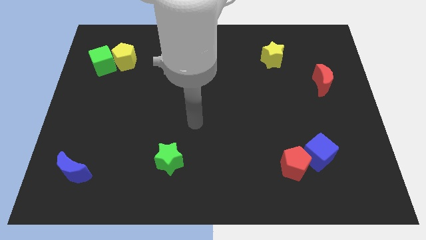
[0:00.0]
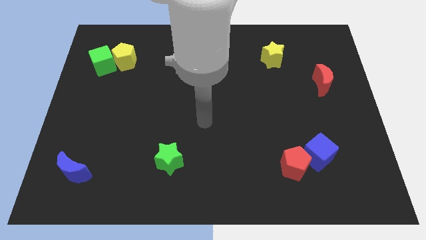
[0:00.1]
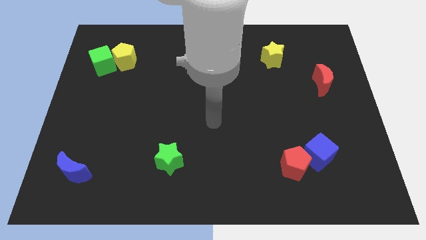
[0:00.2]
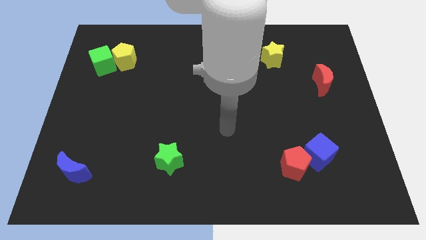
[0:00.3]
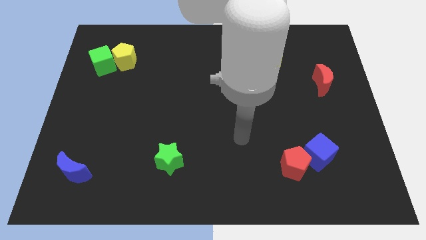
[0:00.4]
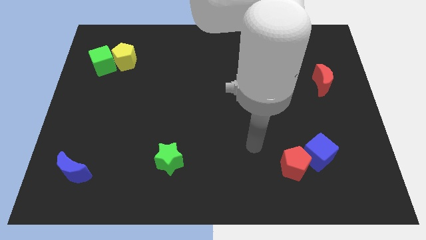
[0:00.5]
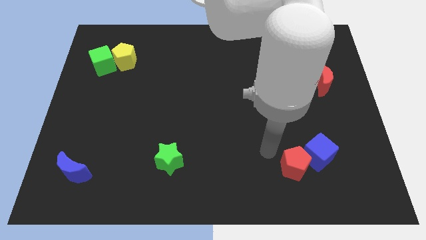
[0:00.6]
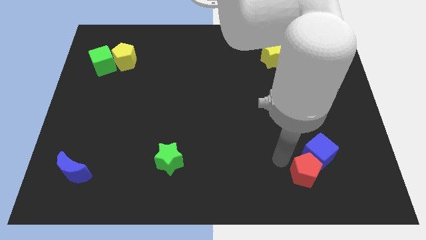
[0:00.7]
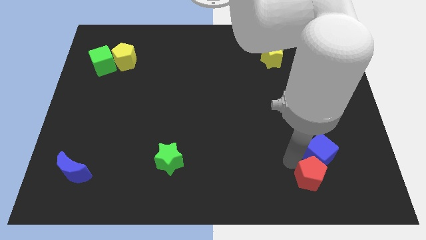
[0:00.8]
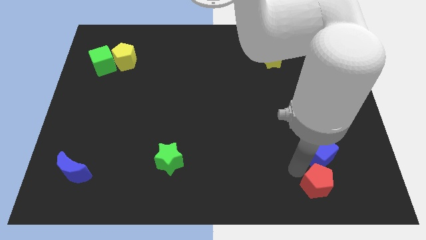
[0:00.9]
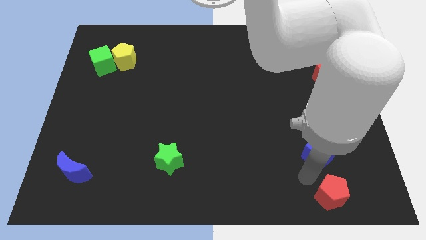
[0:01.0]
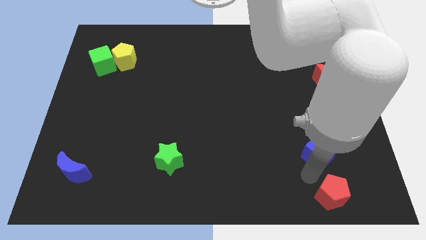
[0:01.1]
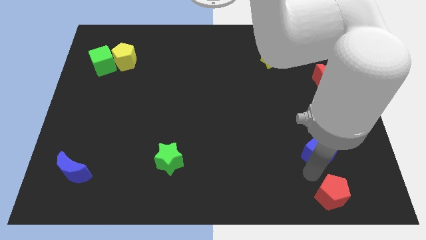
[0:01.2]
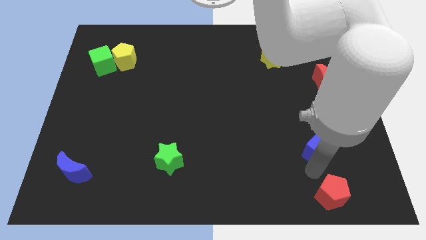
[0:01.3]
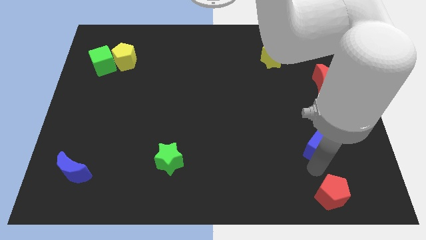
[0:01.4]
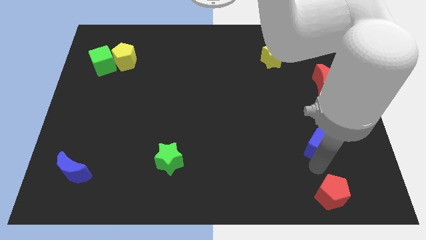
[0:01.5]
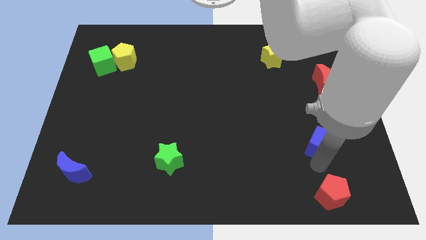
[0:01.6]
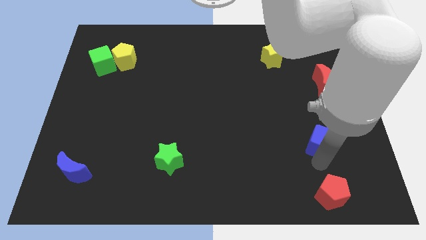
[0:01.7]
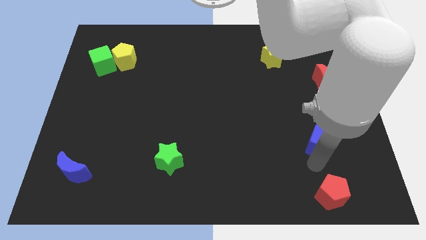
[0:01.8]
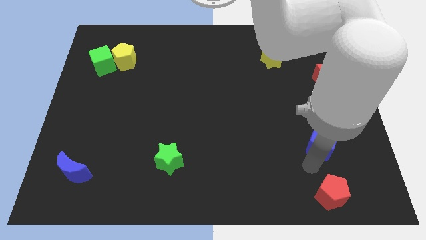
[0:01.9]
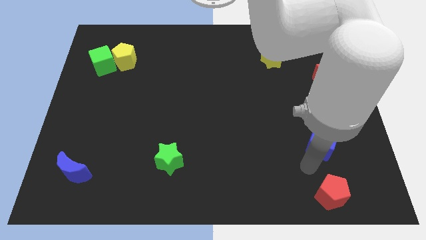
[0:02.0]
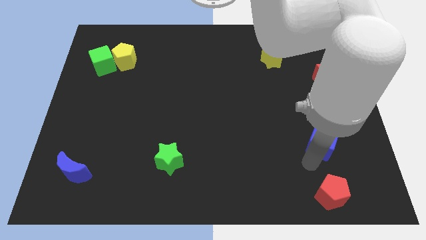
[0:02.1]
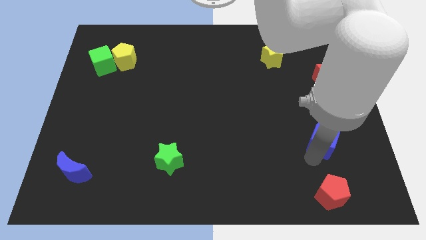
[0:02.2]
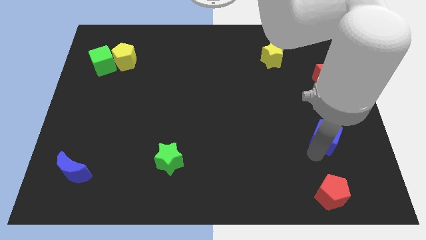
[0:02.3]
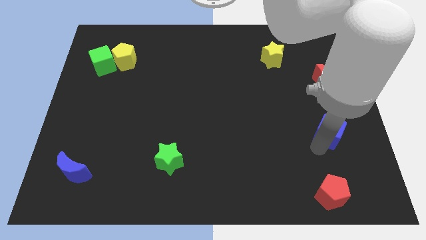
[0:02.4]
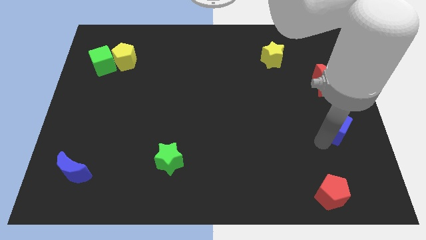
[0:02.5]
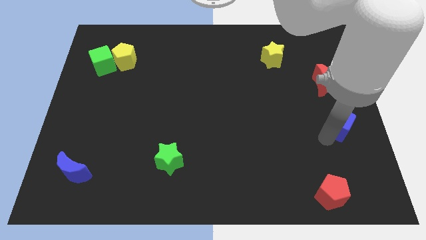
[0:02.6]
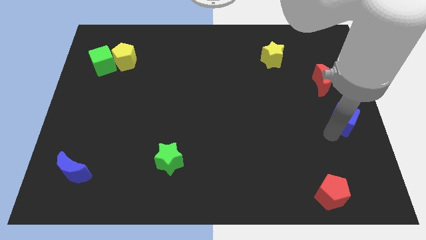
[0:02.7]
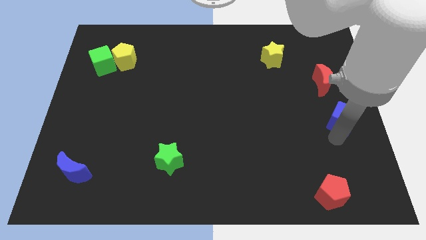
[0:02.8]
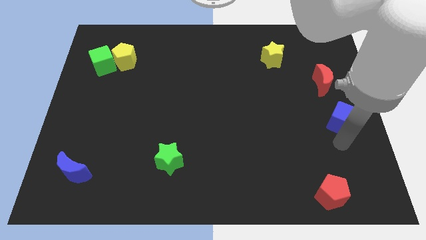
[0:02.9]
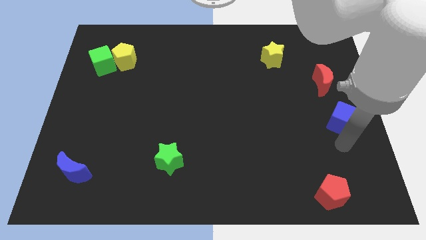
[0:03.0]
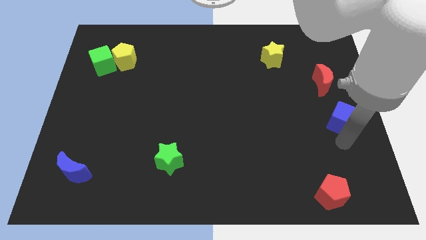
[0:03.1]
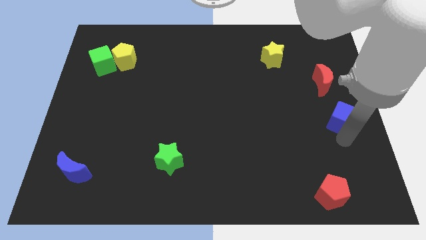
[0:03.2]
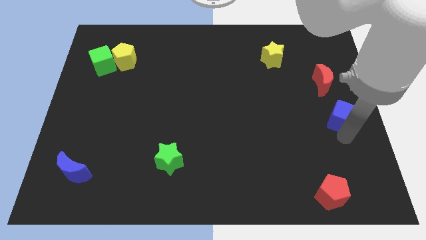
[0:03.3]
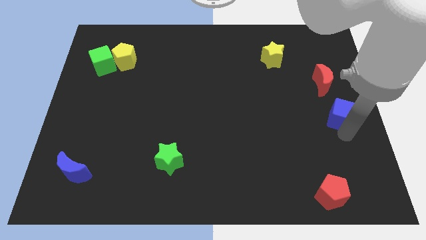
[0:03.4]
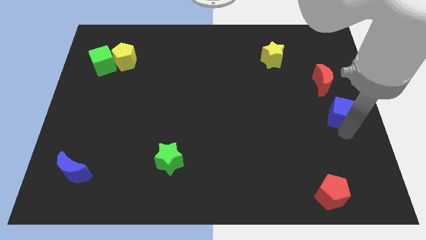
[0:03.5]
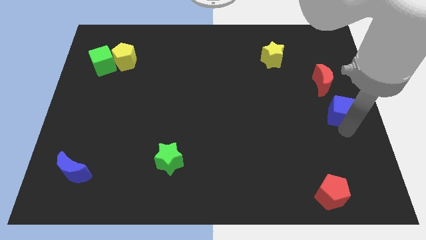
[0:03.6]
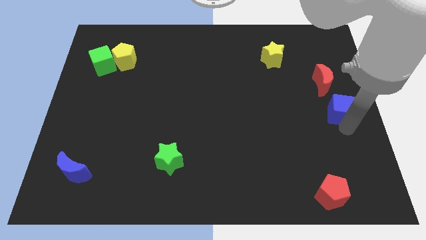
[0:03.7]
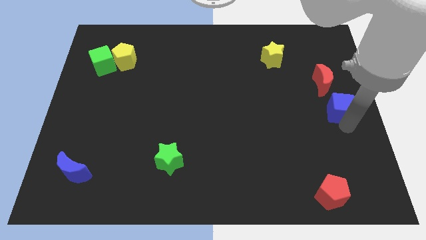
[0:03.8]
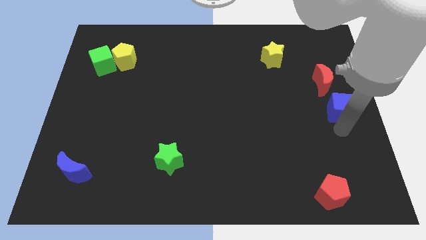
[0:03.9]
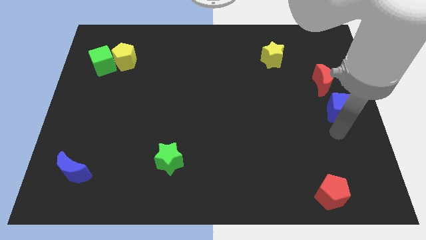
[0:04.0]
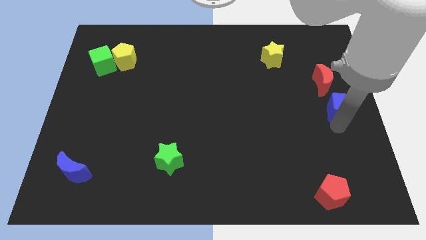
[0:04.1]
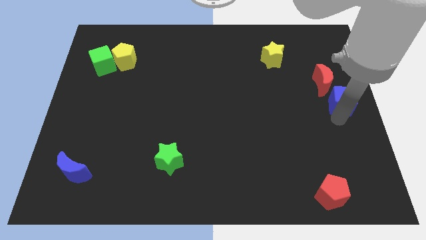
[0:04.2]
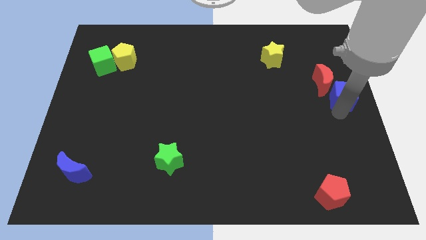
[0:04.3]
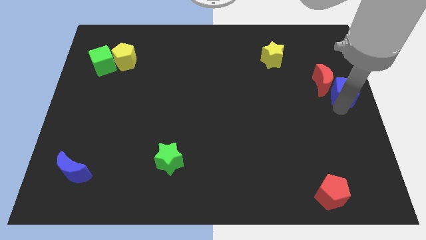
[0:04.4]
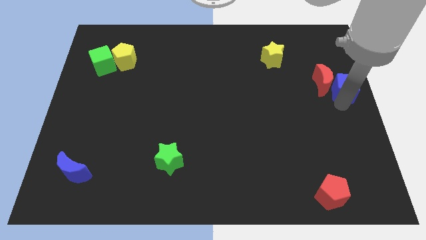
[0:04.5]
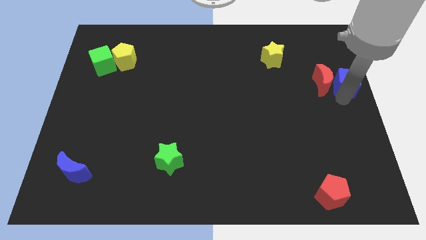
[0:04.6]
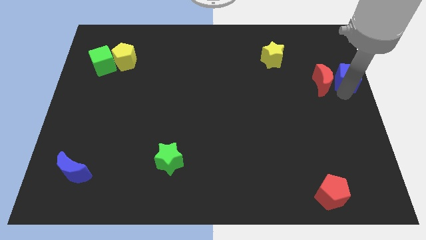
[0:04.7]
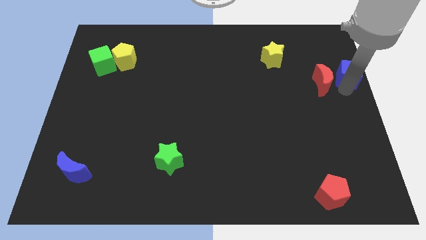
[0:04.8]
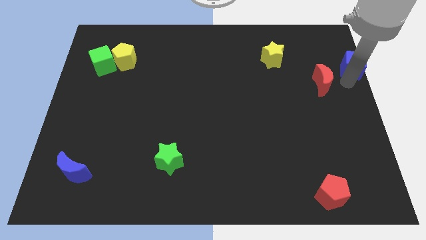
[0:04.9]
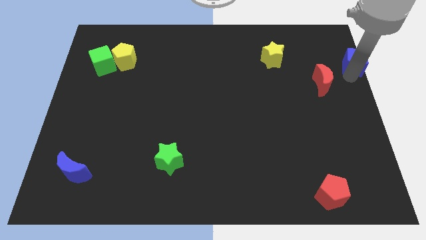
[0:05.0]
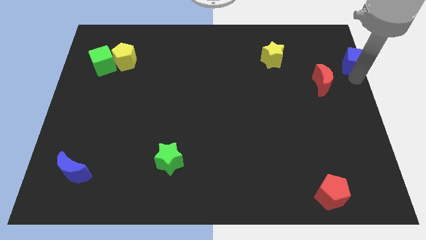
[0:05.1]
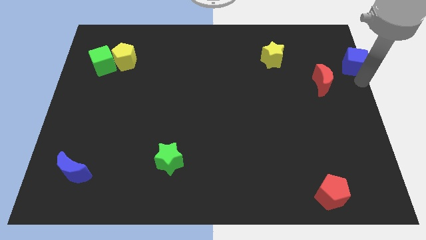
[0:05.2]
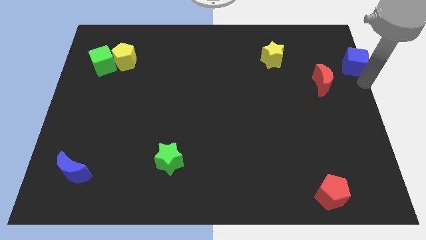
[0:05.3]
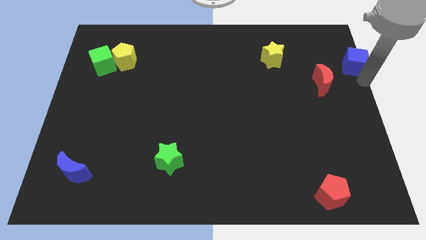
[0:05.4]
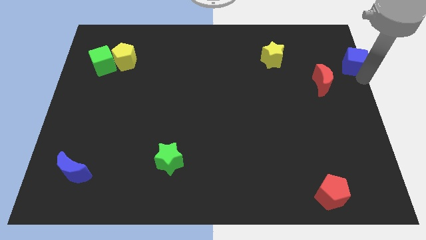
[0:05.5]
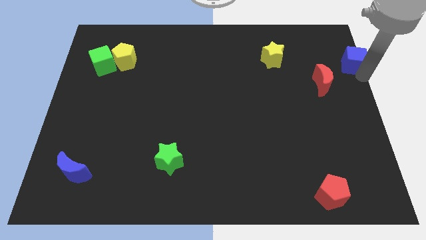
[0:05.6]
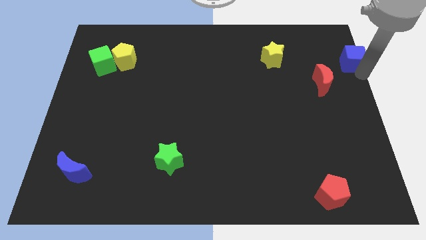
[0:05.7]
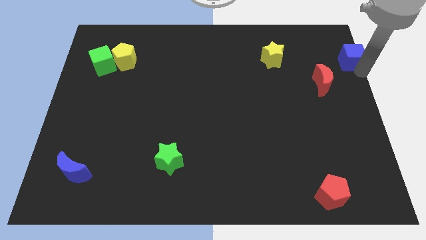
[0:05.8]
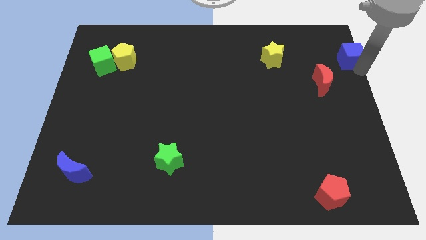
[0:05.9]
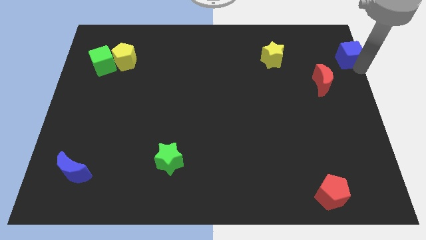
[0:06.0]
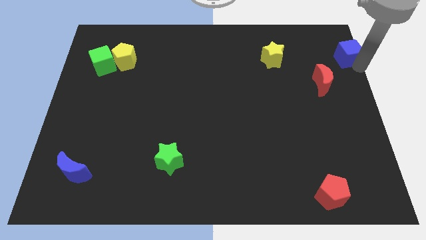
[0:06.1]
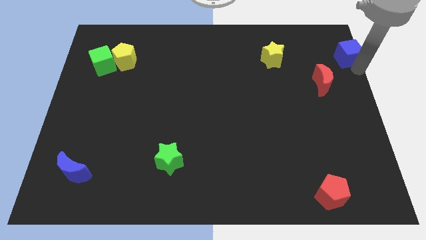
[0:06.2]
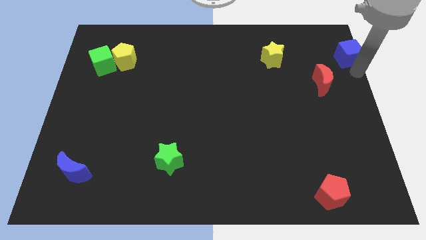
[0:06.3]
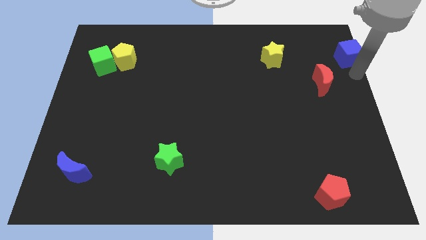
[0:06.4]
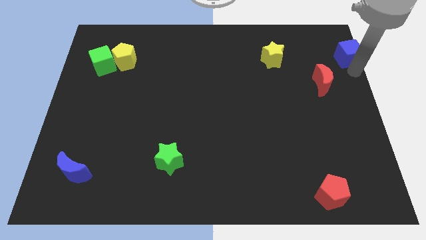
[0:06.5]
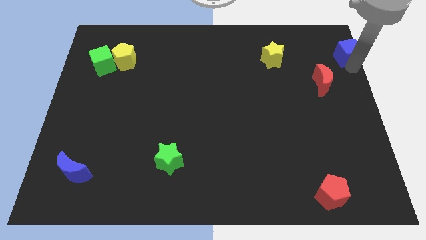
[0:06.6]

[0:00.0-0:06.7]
put the blue cube to the top right
